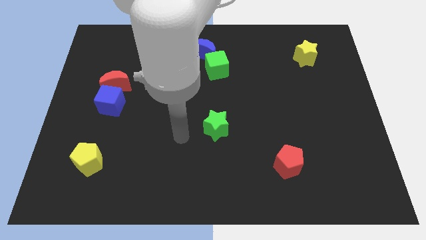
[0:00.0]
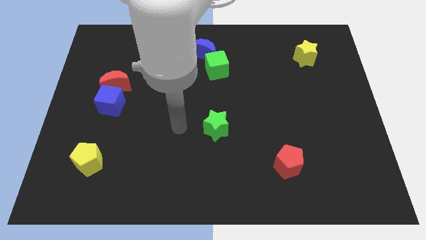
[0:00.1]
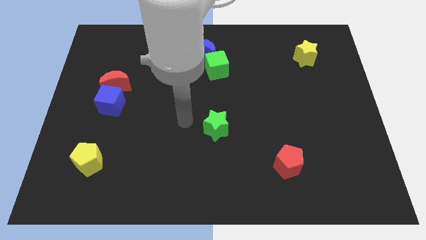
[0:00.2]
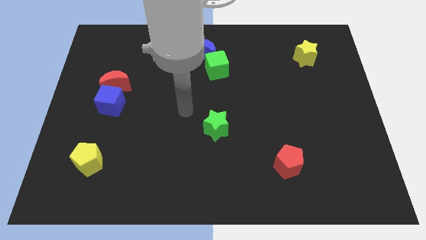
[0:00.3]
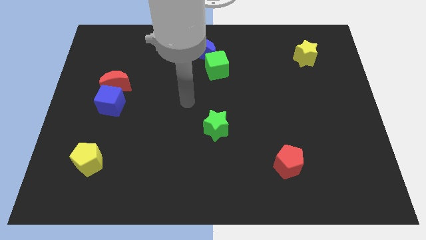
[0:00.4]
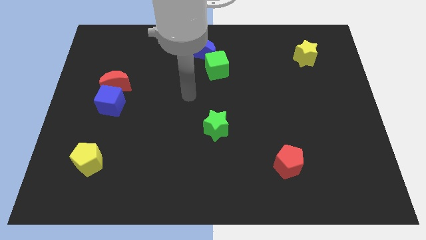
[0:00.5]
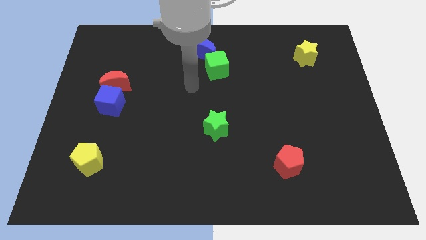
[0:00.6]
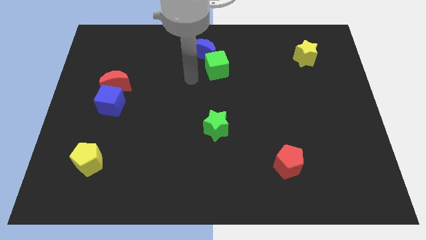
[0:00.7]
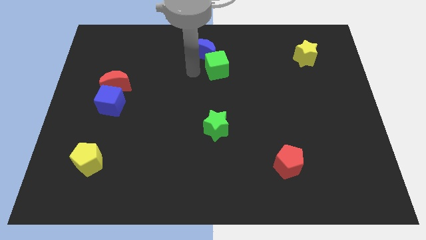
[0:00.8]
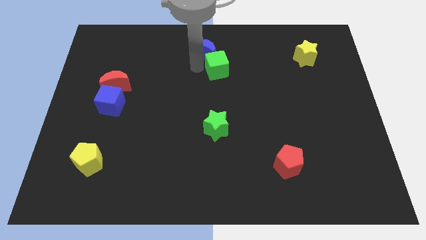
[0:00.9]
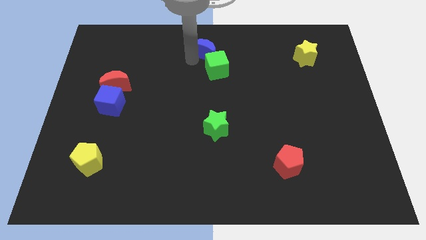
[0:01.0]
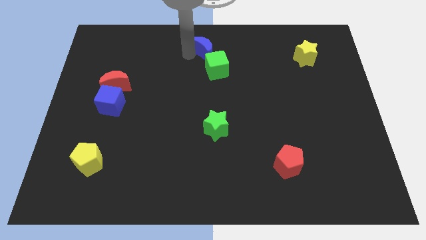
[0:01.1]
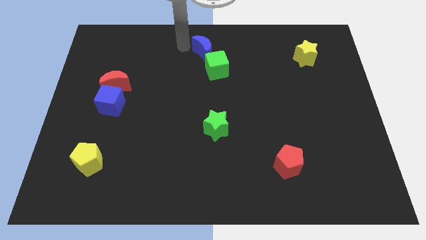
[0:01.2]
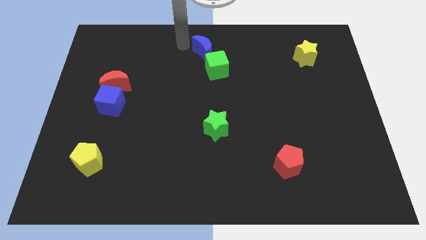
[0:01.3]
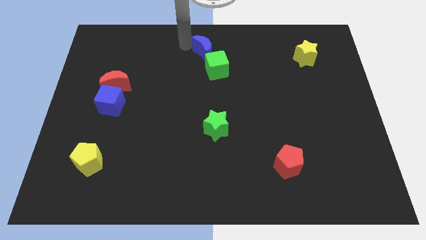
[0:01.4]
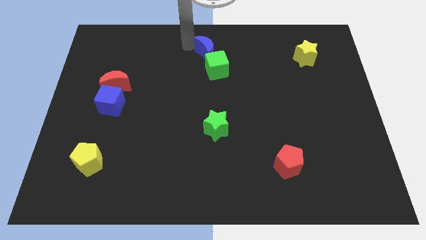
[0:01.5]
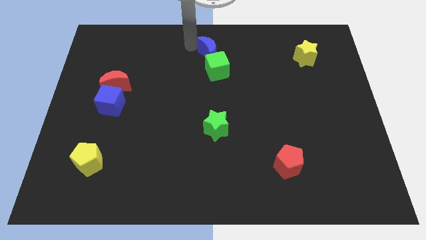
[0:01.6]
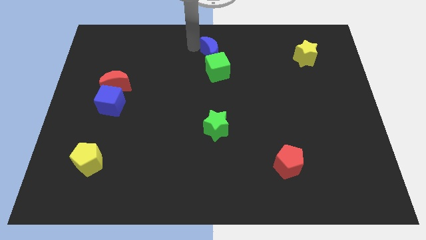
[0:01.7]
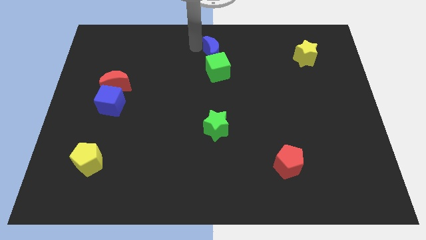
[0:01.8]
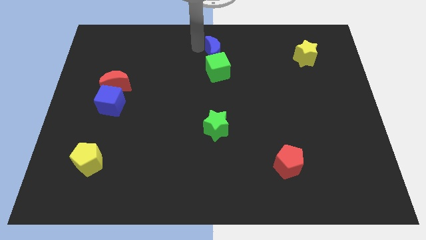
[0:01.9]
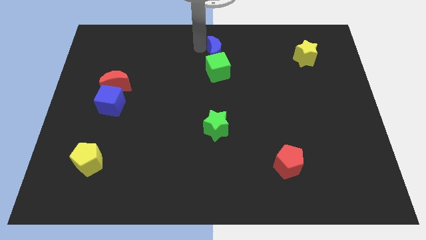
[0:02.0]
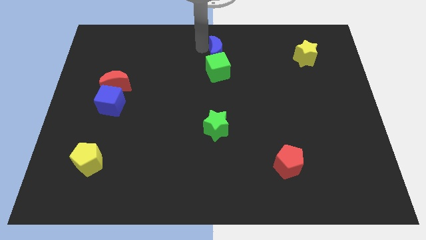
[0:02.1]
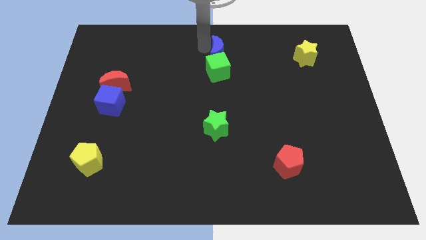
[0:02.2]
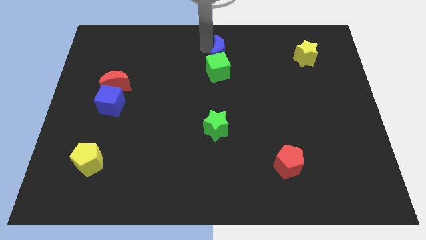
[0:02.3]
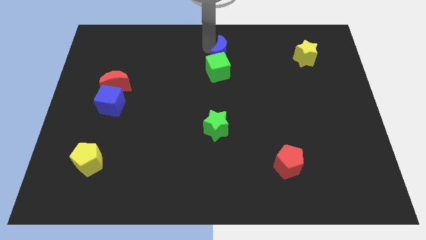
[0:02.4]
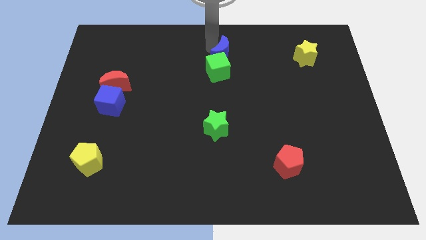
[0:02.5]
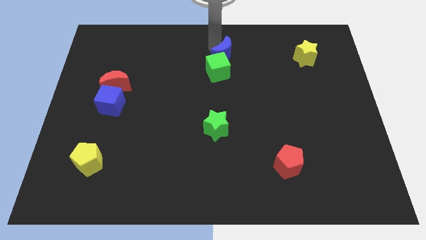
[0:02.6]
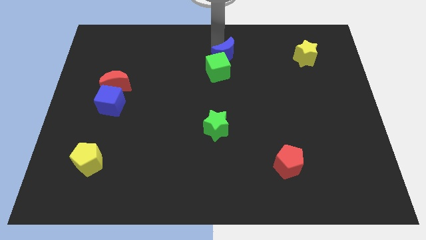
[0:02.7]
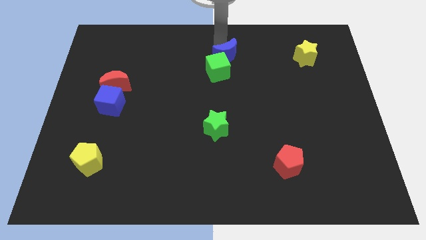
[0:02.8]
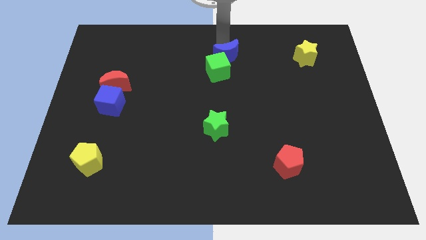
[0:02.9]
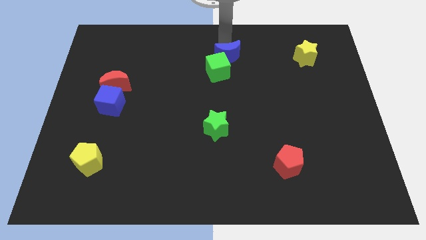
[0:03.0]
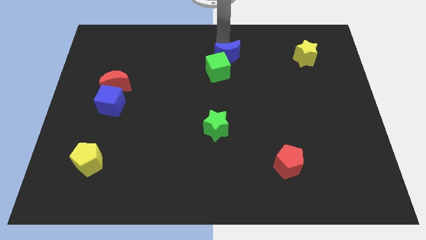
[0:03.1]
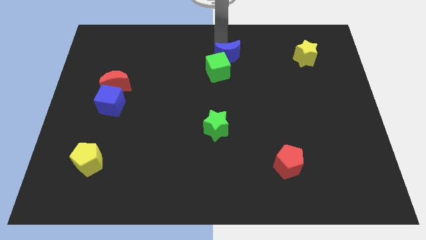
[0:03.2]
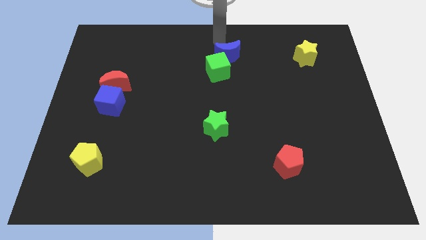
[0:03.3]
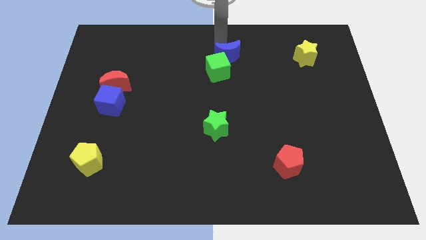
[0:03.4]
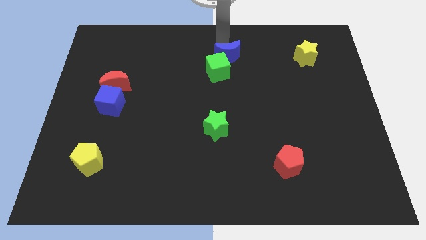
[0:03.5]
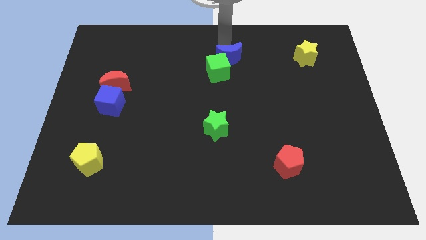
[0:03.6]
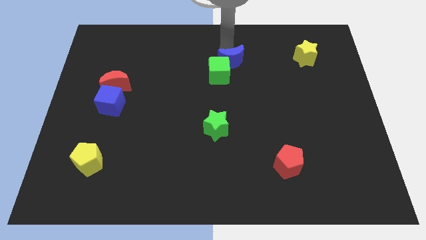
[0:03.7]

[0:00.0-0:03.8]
move the blue moon slightly downwards and then right

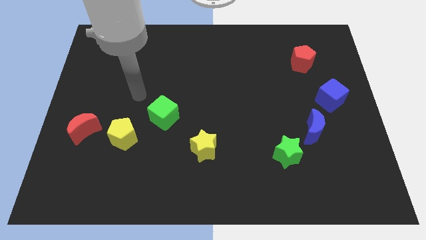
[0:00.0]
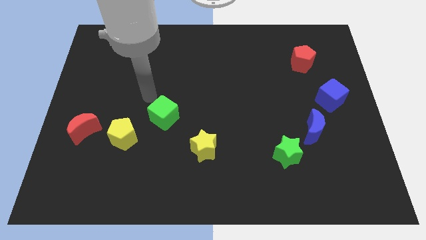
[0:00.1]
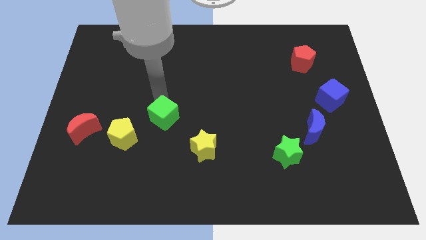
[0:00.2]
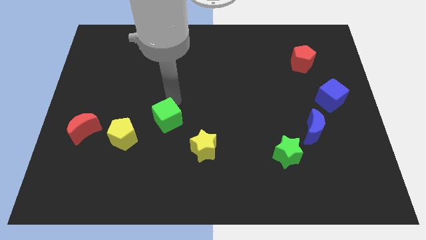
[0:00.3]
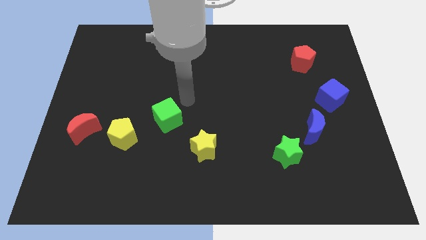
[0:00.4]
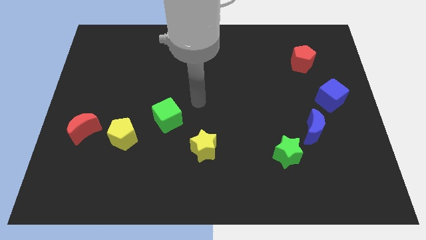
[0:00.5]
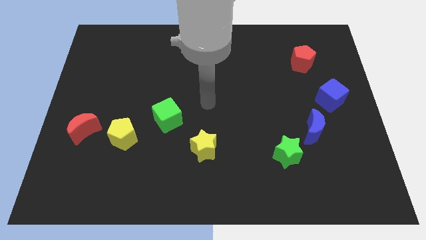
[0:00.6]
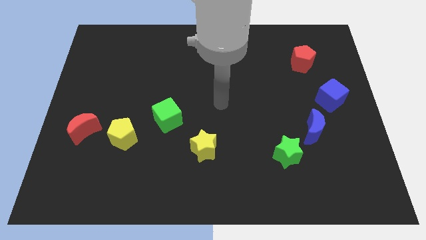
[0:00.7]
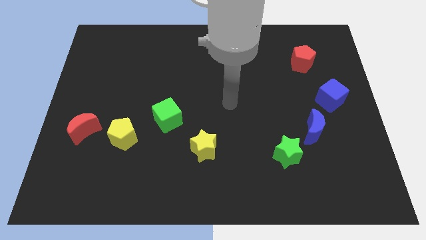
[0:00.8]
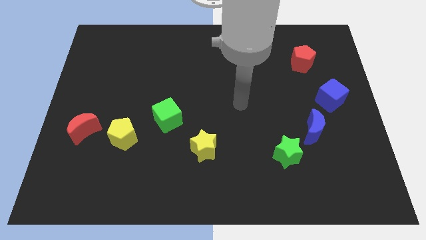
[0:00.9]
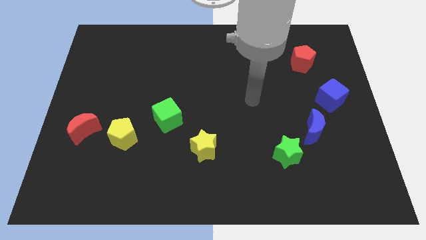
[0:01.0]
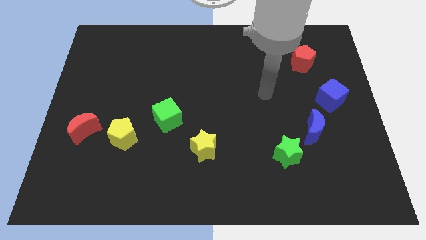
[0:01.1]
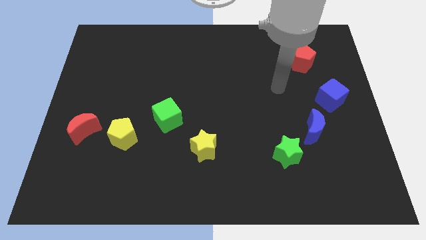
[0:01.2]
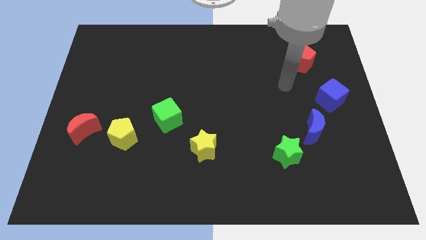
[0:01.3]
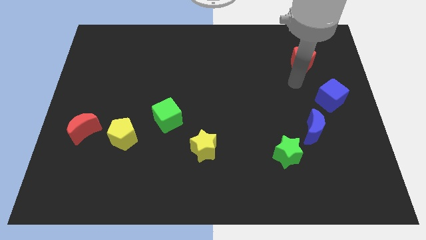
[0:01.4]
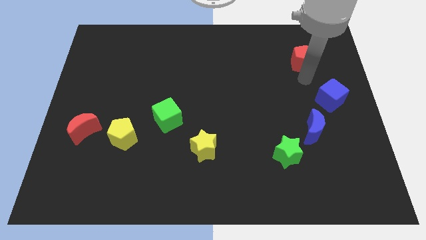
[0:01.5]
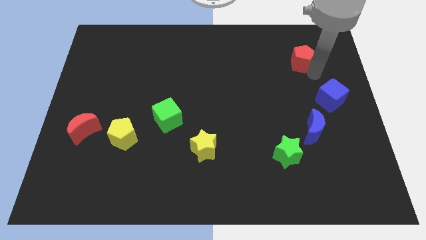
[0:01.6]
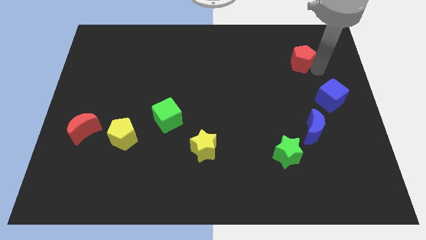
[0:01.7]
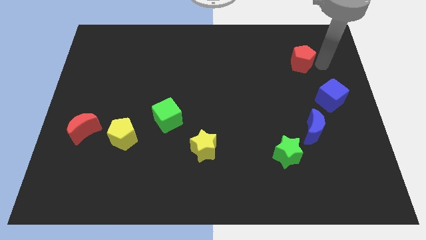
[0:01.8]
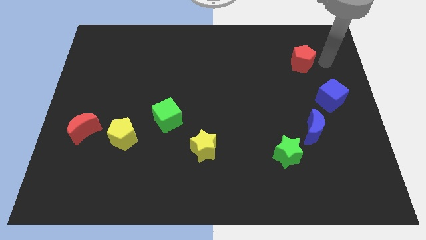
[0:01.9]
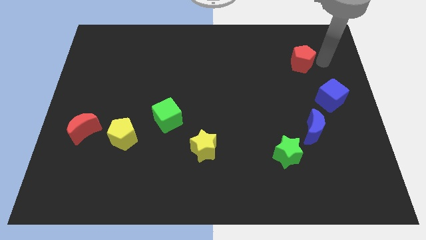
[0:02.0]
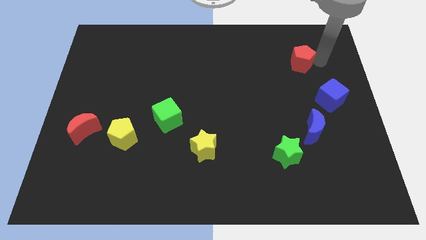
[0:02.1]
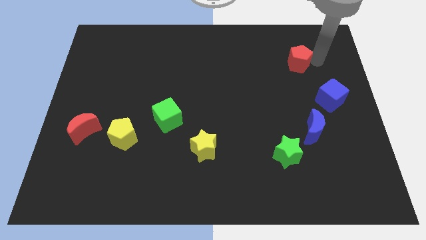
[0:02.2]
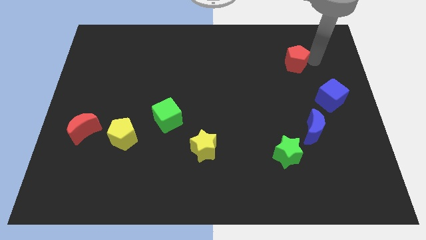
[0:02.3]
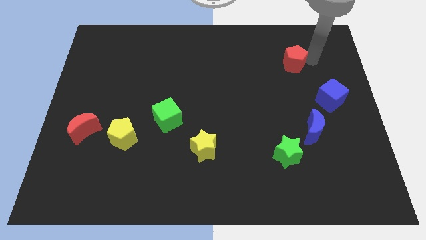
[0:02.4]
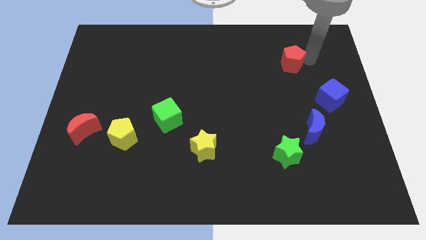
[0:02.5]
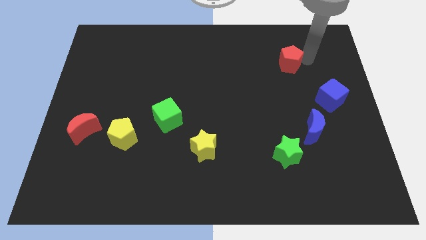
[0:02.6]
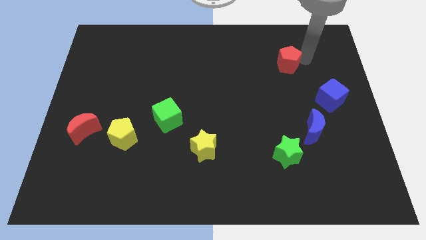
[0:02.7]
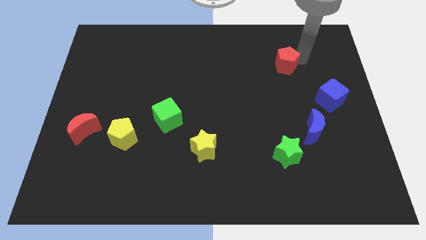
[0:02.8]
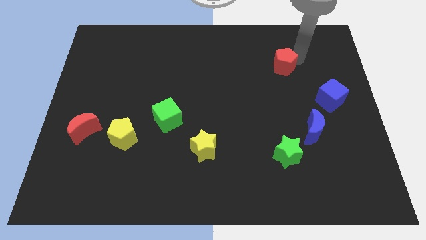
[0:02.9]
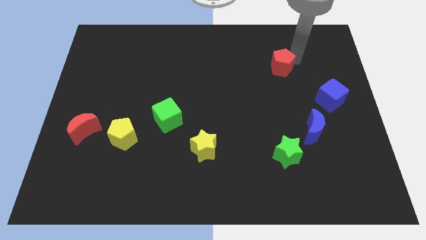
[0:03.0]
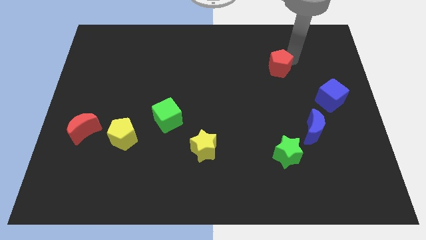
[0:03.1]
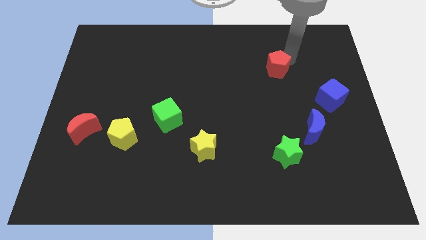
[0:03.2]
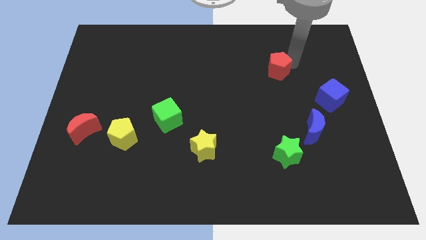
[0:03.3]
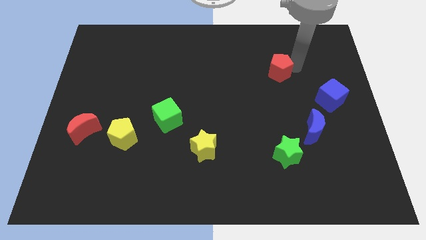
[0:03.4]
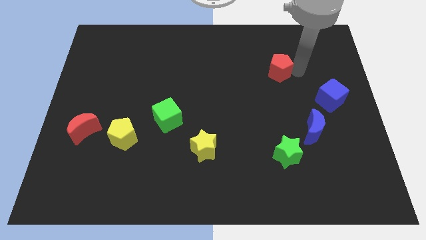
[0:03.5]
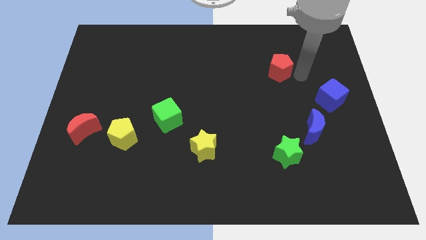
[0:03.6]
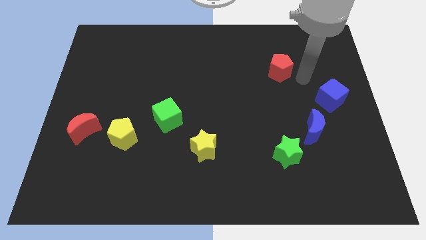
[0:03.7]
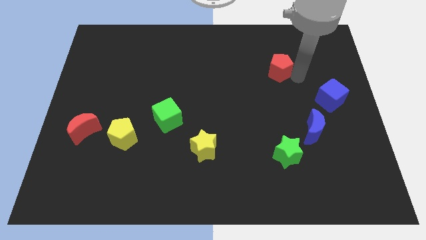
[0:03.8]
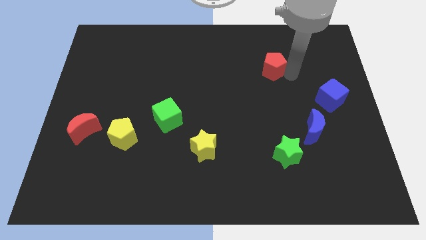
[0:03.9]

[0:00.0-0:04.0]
push the red pentagon slightly to the left

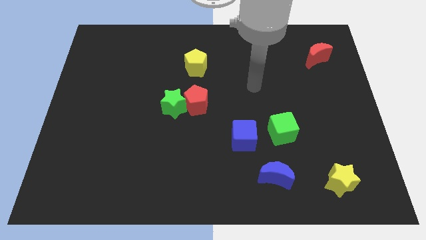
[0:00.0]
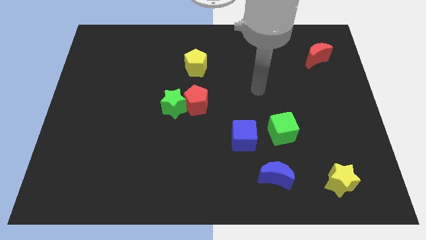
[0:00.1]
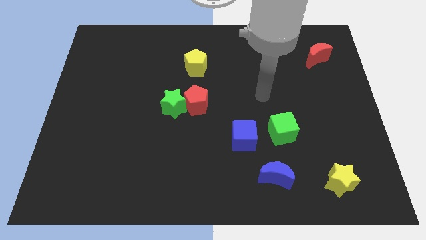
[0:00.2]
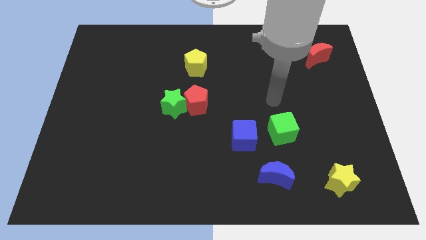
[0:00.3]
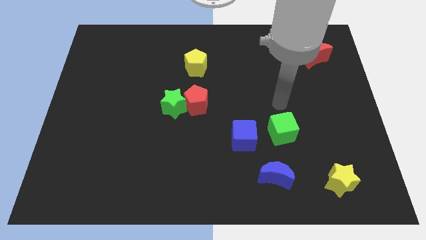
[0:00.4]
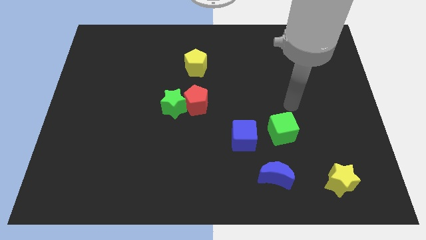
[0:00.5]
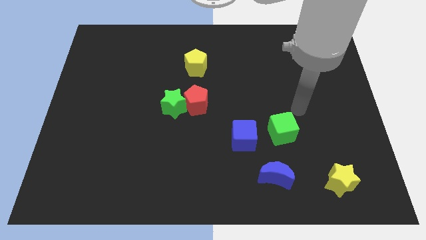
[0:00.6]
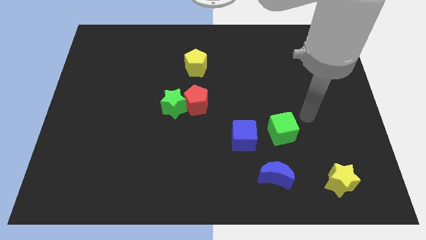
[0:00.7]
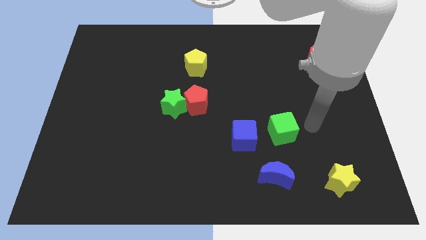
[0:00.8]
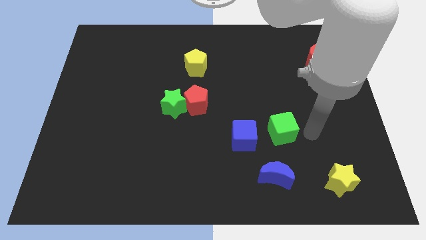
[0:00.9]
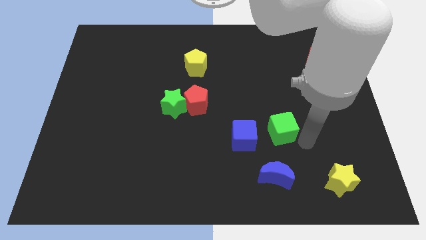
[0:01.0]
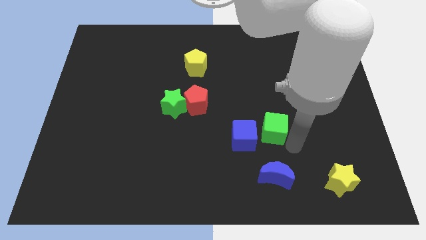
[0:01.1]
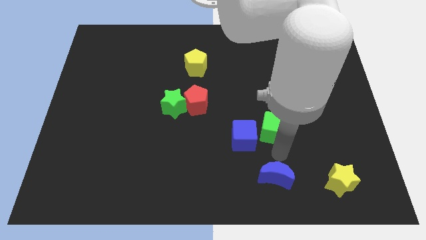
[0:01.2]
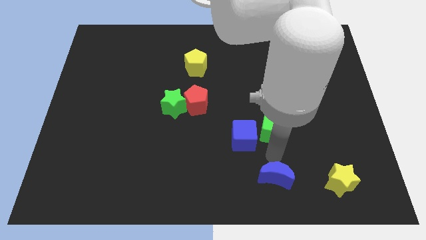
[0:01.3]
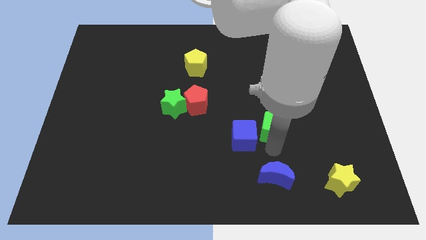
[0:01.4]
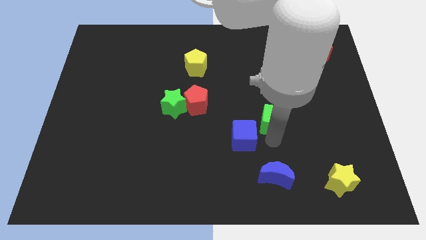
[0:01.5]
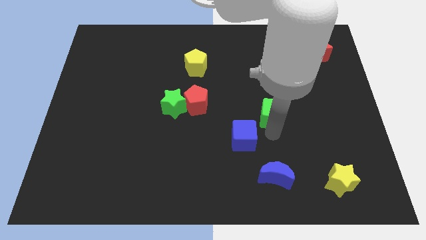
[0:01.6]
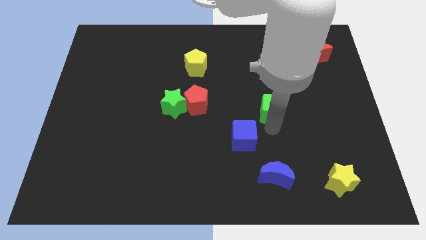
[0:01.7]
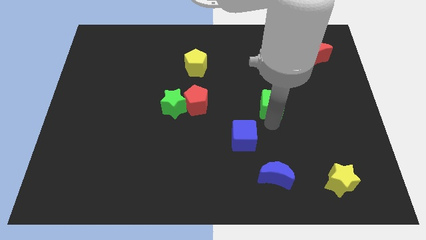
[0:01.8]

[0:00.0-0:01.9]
slide the green cube a little bit up
